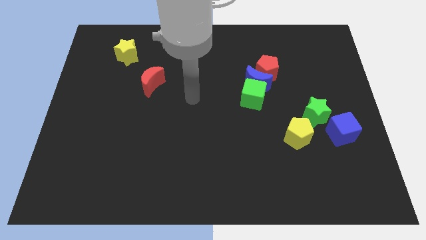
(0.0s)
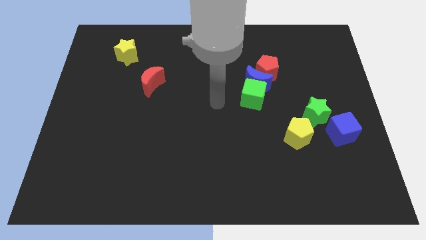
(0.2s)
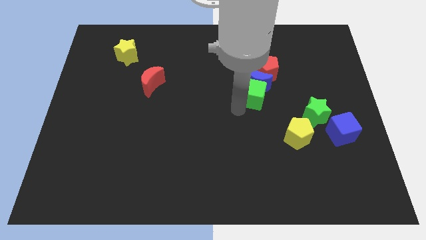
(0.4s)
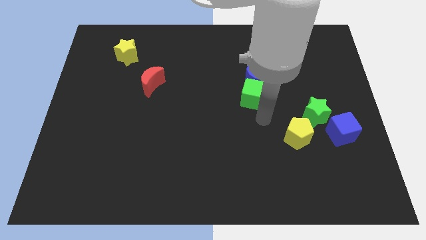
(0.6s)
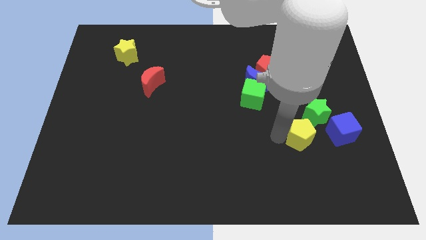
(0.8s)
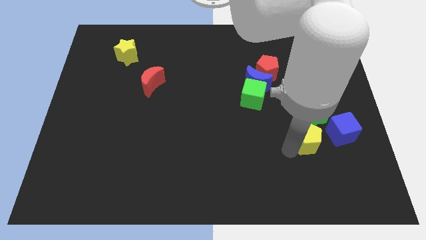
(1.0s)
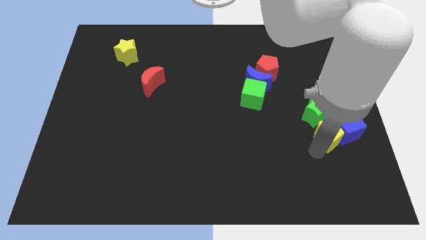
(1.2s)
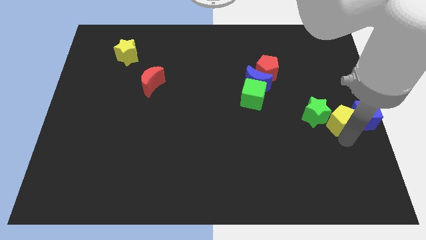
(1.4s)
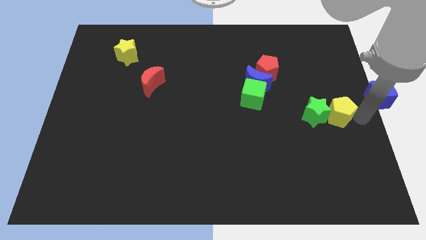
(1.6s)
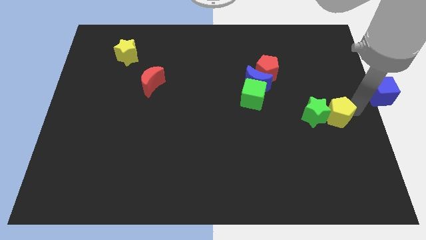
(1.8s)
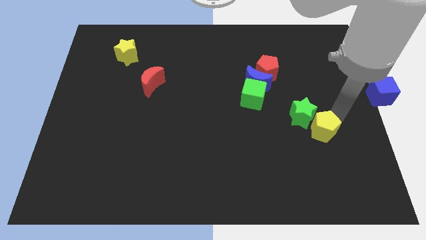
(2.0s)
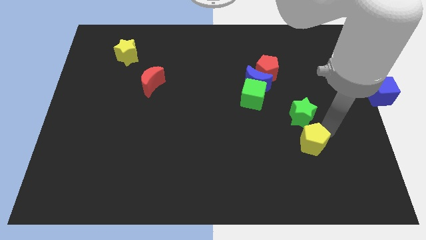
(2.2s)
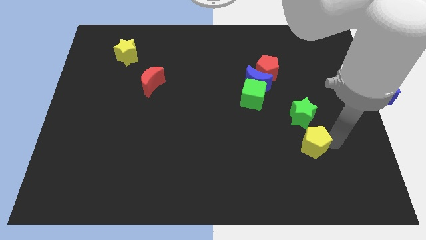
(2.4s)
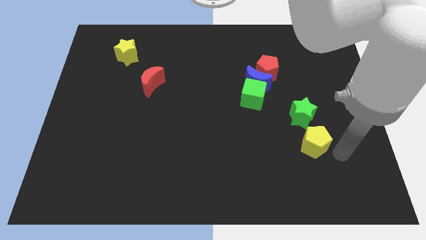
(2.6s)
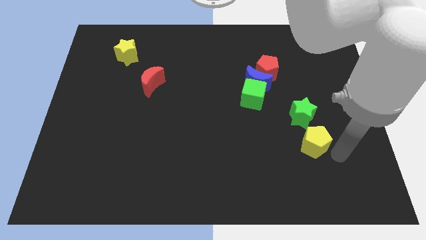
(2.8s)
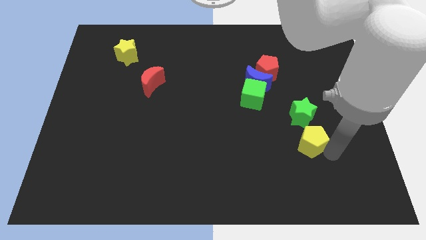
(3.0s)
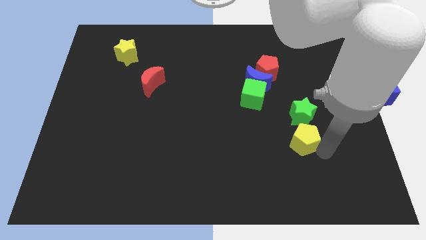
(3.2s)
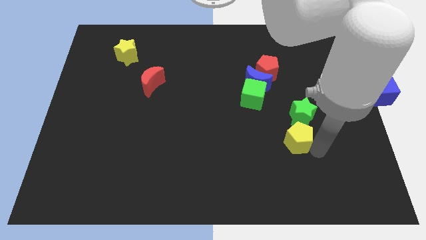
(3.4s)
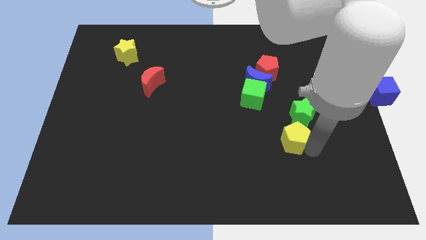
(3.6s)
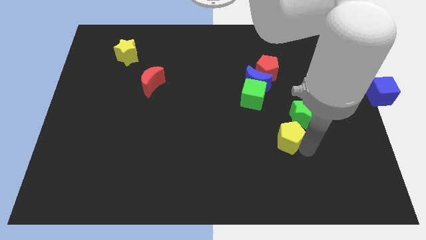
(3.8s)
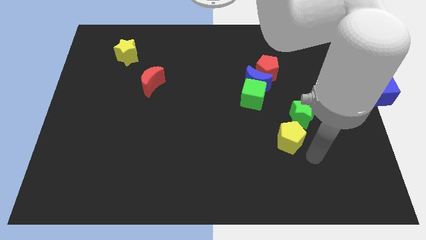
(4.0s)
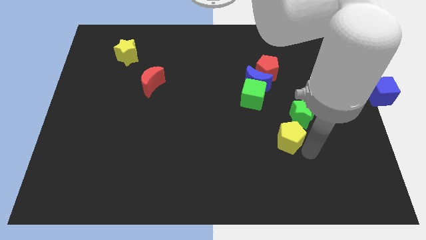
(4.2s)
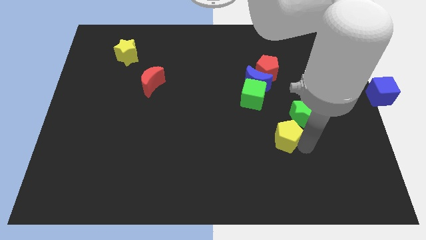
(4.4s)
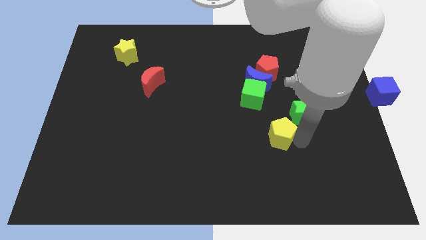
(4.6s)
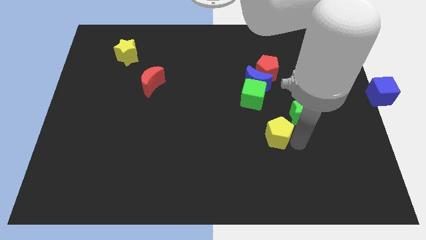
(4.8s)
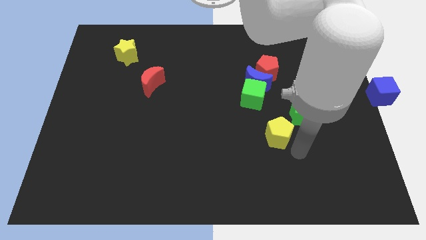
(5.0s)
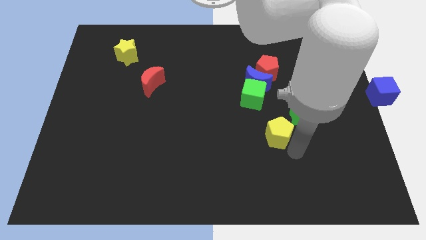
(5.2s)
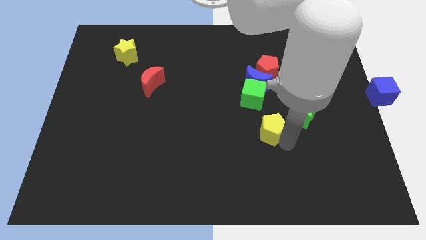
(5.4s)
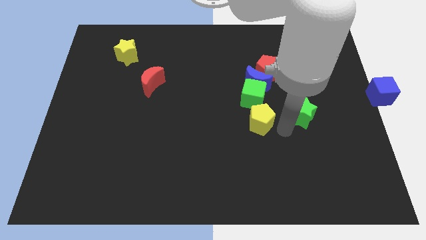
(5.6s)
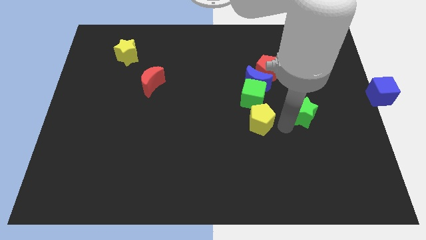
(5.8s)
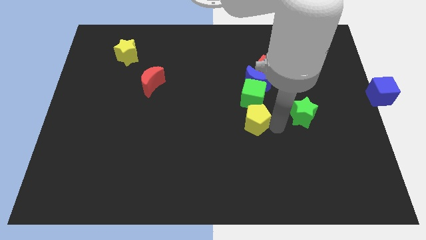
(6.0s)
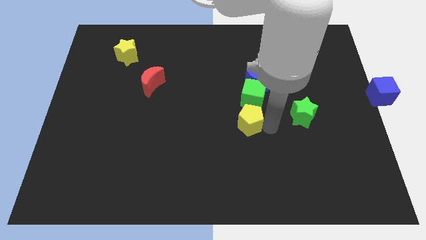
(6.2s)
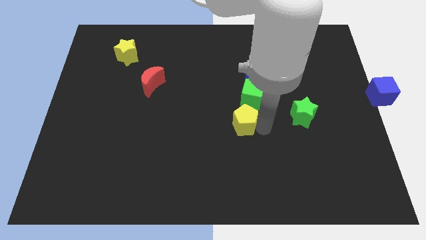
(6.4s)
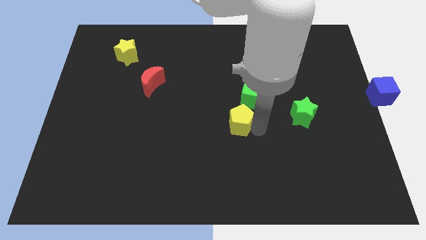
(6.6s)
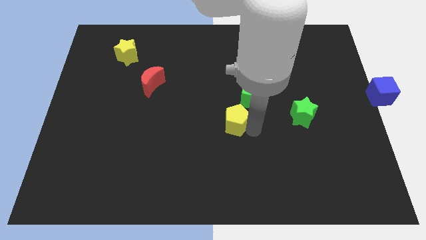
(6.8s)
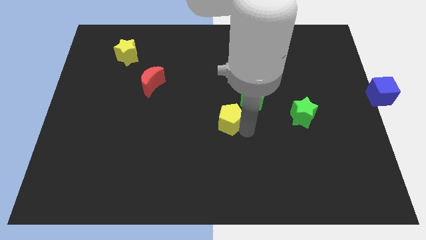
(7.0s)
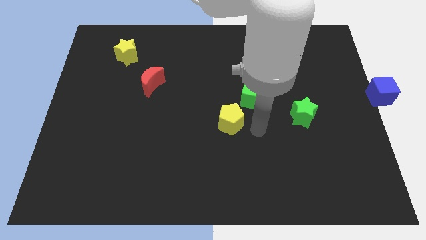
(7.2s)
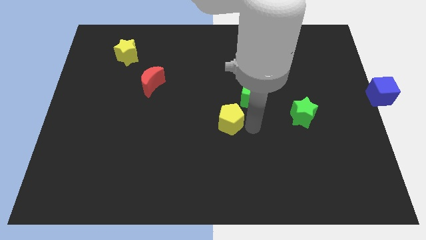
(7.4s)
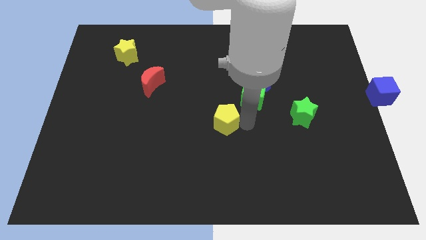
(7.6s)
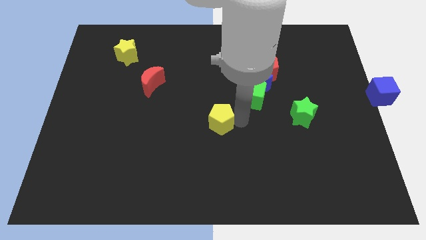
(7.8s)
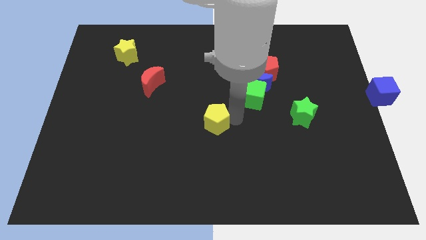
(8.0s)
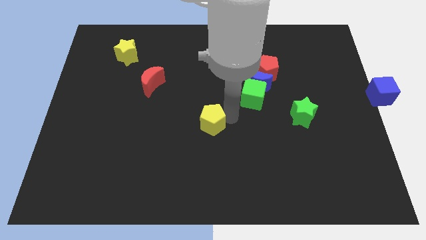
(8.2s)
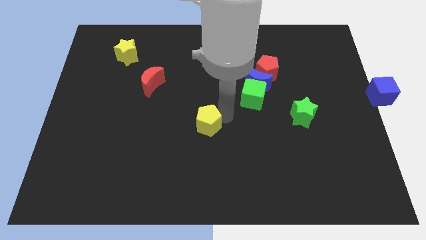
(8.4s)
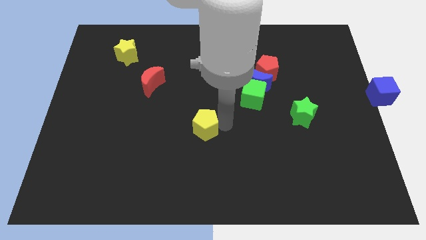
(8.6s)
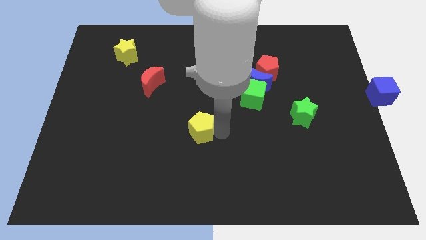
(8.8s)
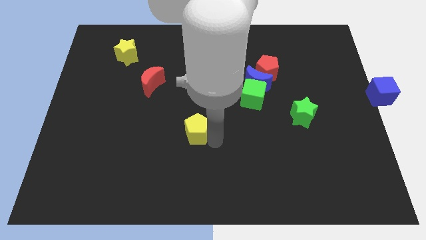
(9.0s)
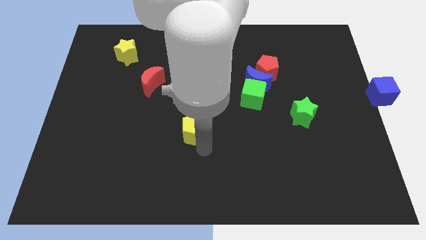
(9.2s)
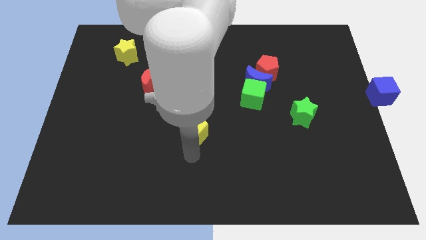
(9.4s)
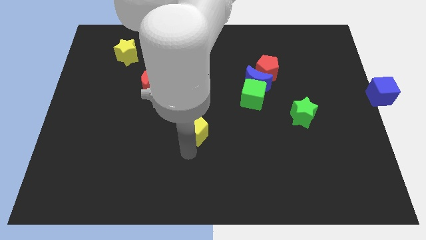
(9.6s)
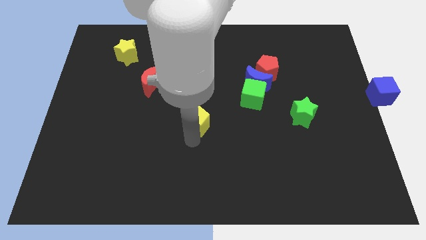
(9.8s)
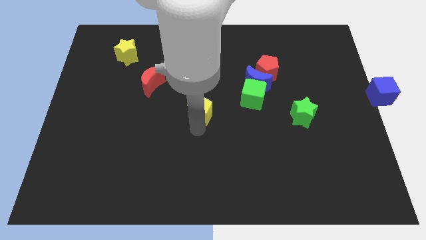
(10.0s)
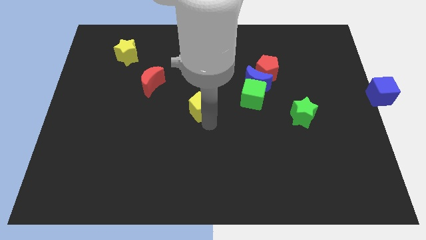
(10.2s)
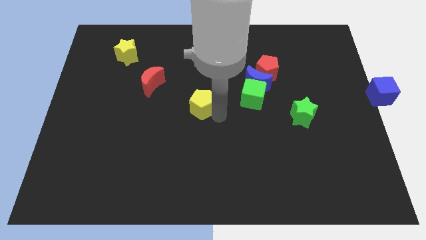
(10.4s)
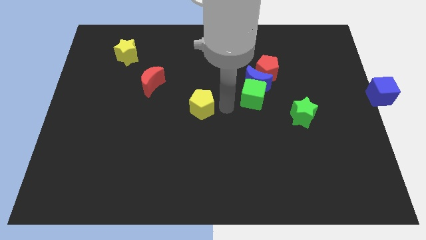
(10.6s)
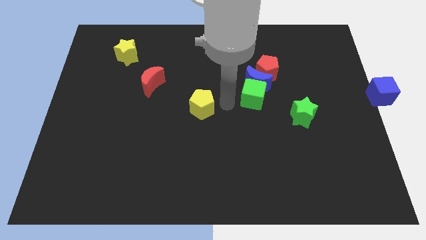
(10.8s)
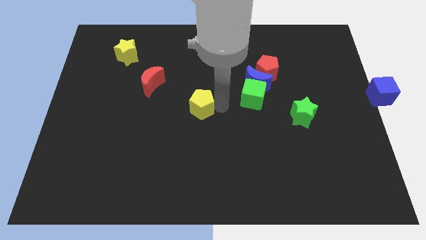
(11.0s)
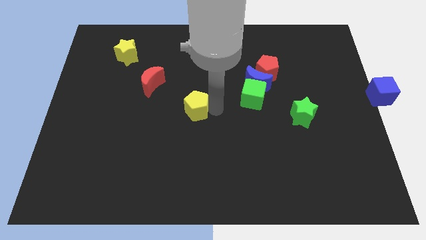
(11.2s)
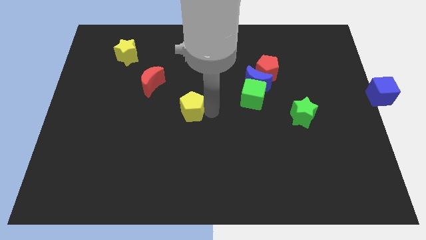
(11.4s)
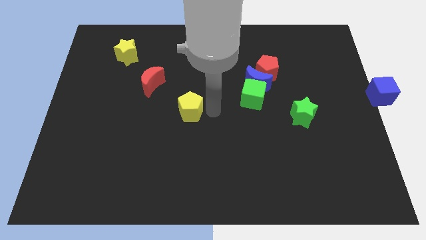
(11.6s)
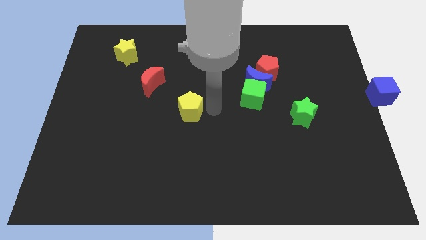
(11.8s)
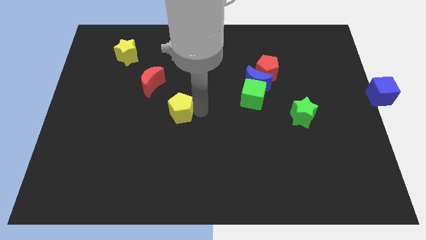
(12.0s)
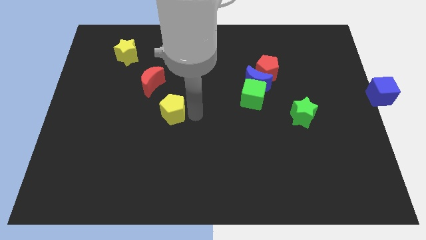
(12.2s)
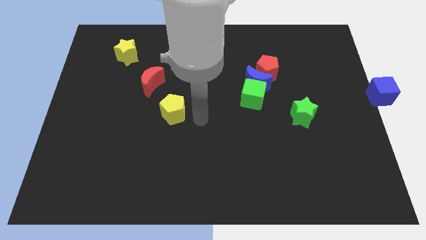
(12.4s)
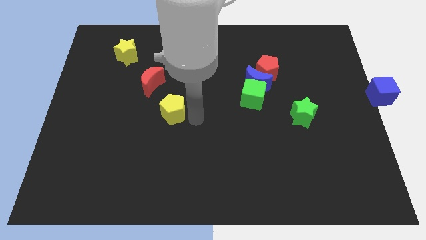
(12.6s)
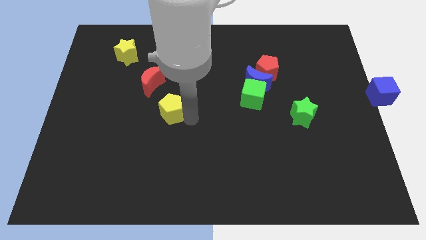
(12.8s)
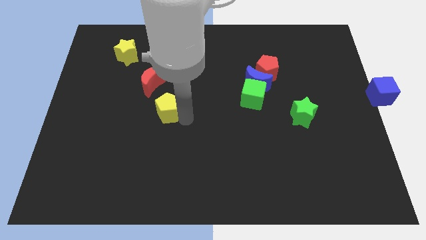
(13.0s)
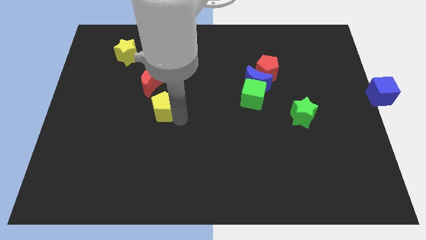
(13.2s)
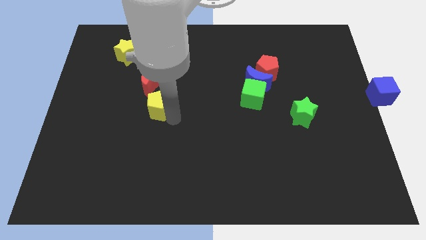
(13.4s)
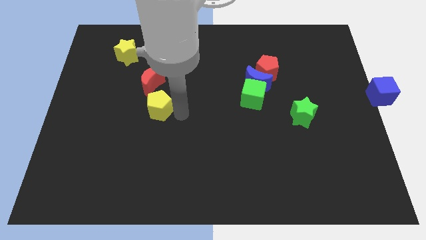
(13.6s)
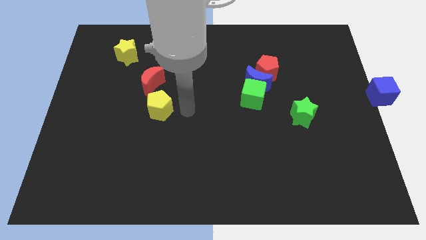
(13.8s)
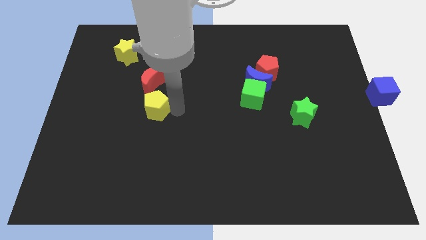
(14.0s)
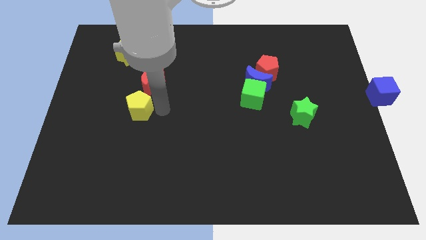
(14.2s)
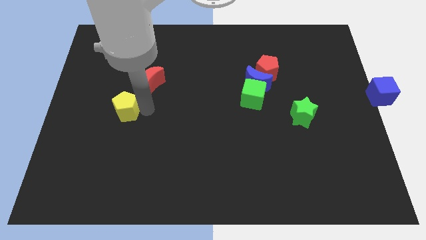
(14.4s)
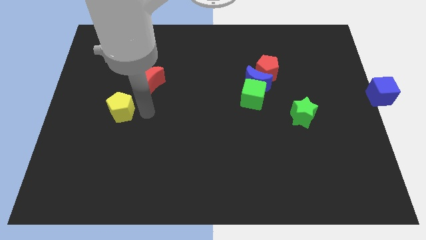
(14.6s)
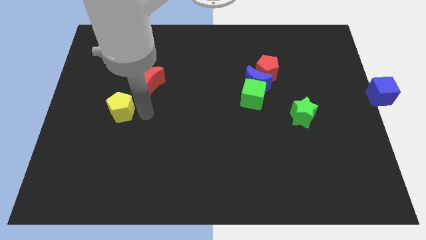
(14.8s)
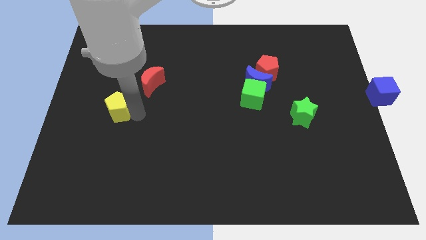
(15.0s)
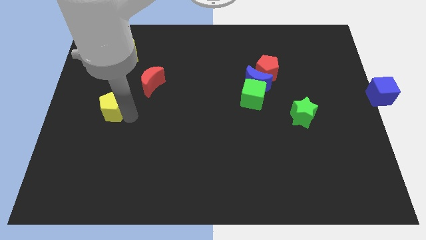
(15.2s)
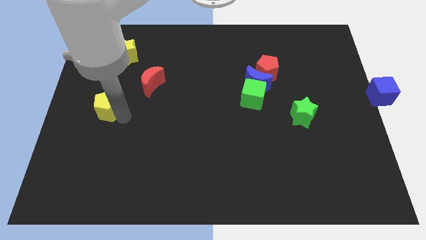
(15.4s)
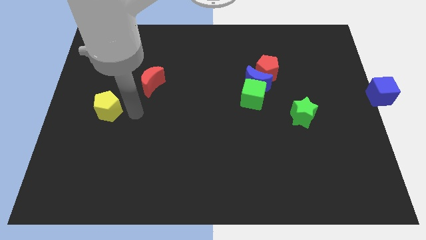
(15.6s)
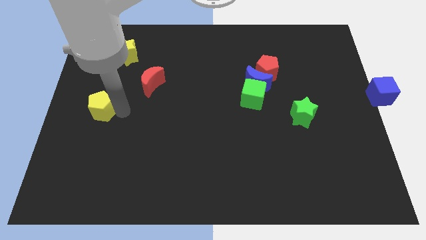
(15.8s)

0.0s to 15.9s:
push the yellow pentagon to the left side
